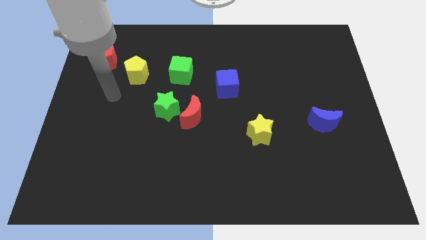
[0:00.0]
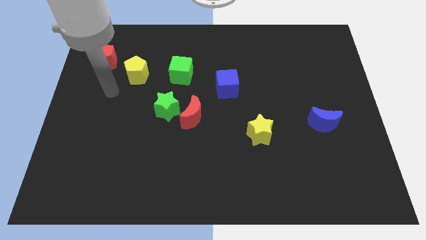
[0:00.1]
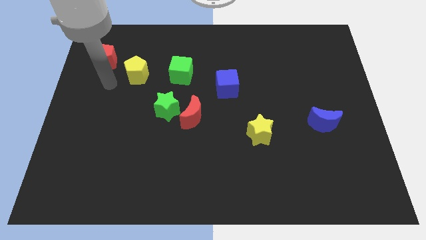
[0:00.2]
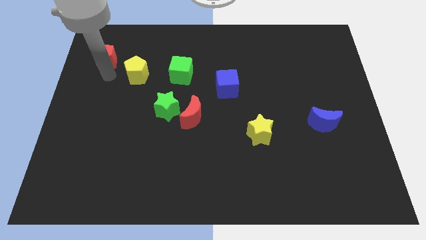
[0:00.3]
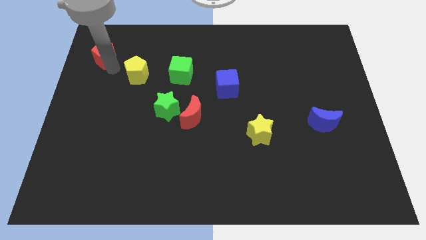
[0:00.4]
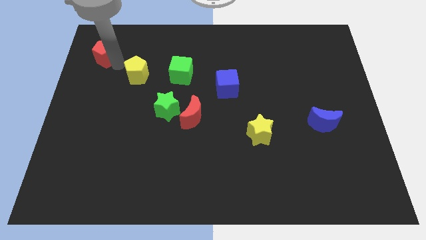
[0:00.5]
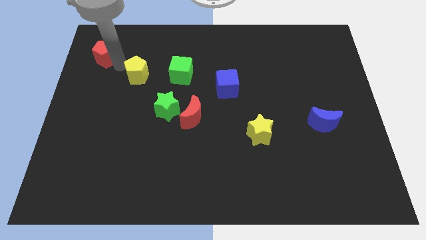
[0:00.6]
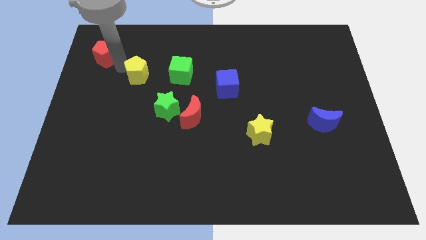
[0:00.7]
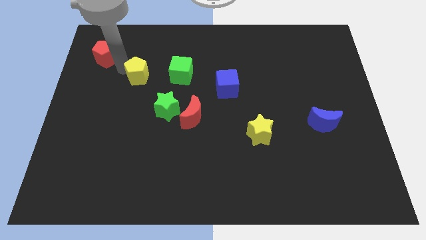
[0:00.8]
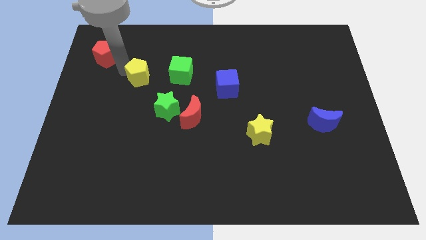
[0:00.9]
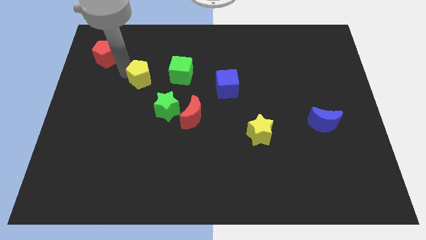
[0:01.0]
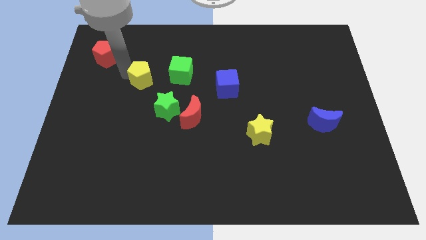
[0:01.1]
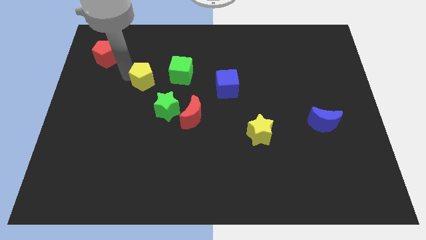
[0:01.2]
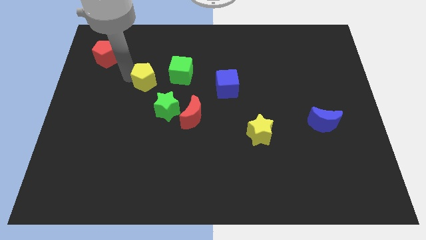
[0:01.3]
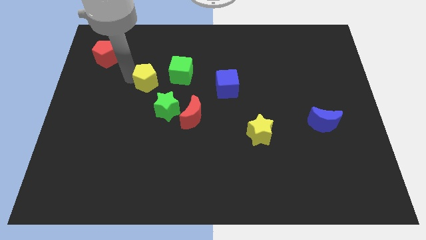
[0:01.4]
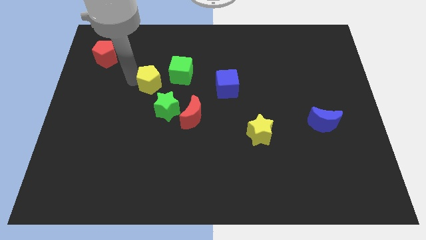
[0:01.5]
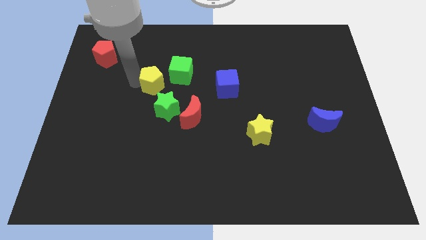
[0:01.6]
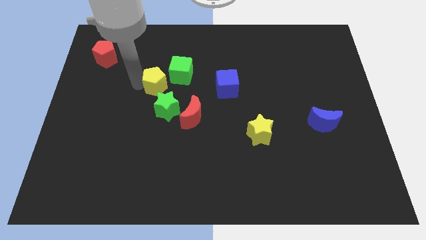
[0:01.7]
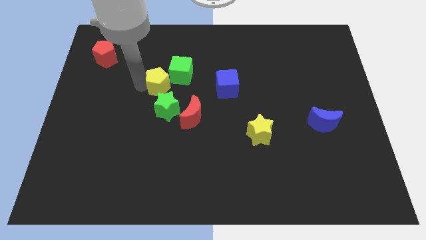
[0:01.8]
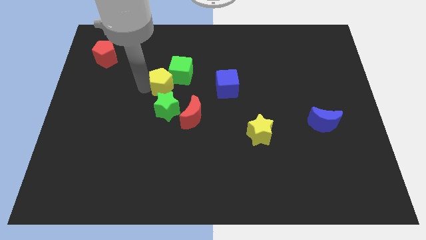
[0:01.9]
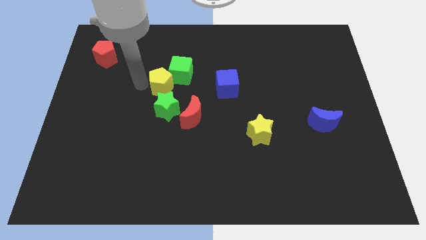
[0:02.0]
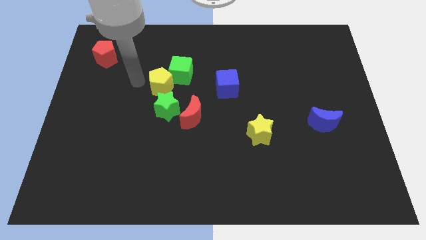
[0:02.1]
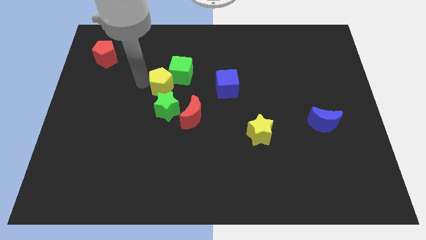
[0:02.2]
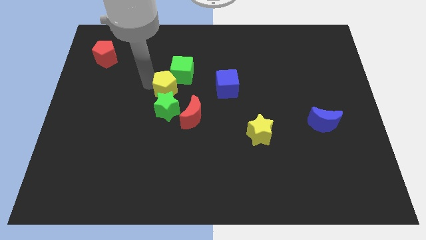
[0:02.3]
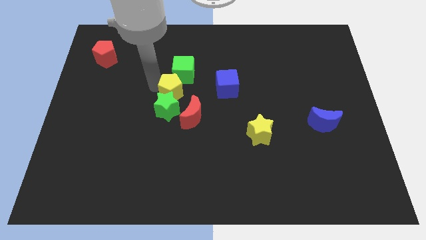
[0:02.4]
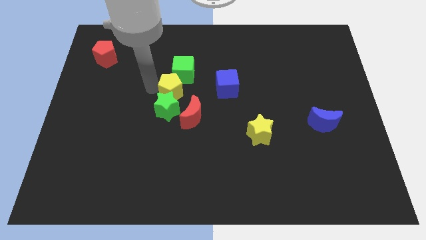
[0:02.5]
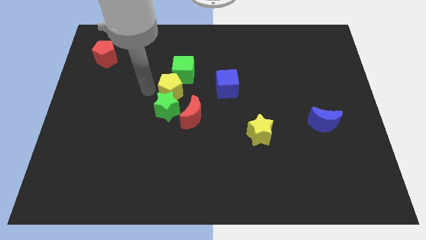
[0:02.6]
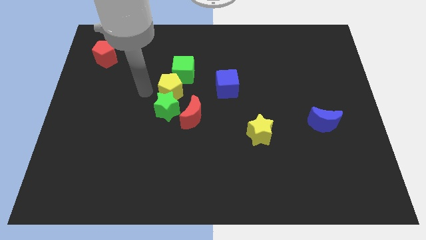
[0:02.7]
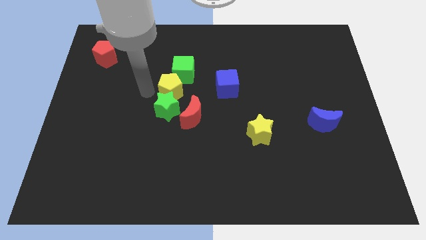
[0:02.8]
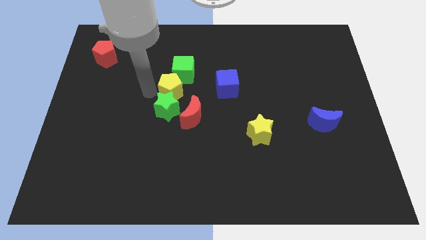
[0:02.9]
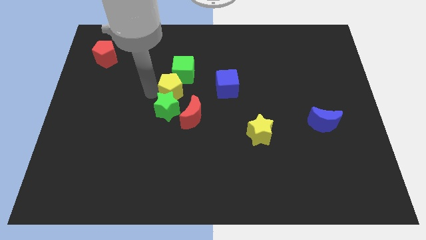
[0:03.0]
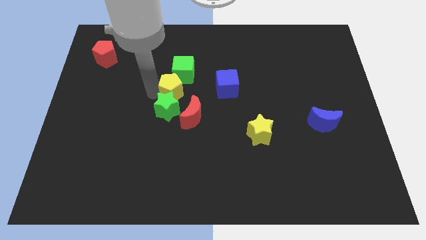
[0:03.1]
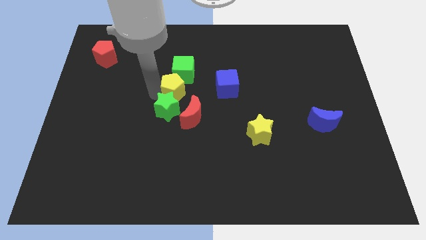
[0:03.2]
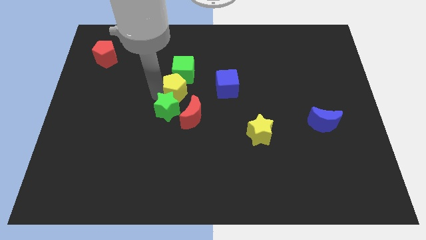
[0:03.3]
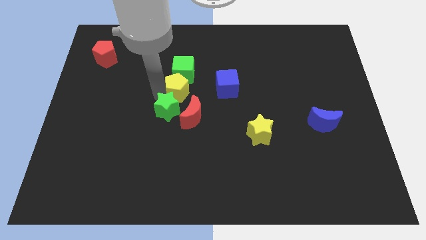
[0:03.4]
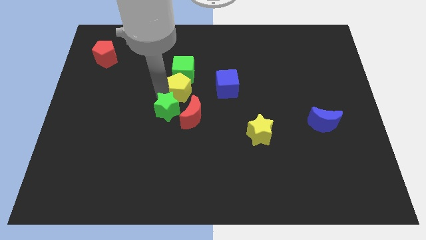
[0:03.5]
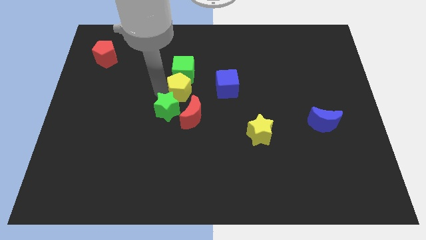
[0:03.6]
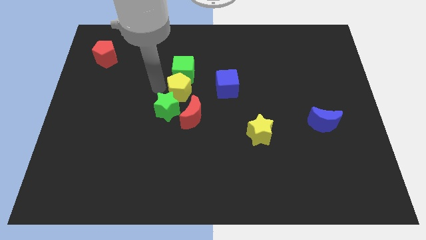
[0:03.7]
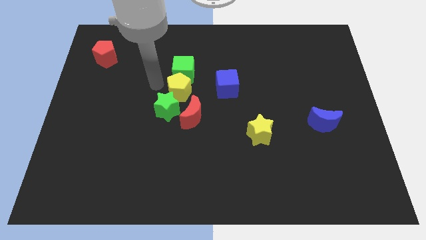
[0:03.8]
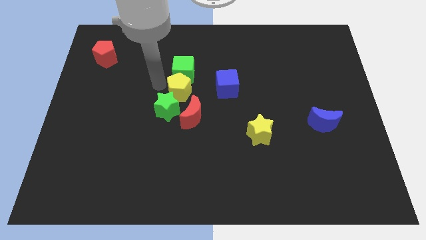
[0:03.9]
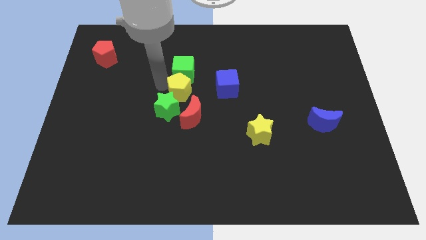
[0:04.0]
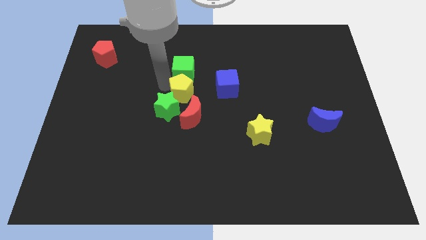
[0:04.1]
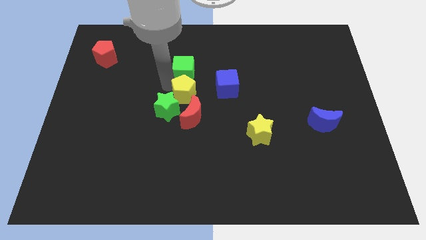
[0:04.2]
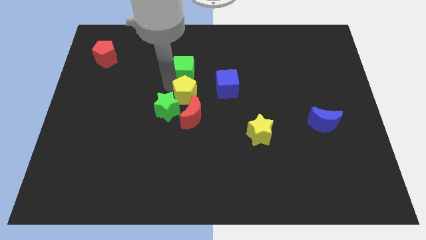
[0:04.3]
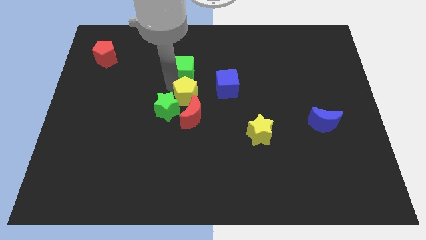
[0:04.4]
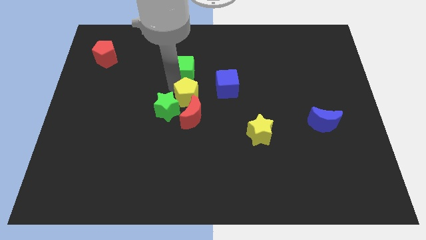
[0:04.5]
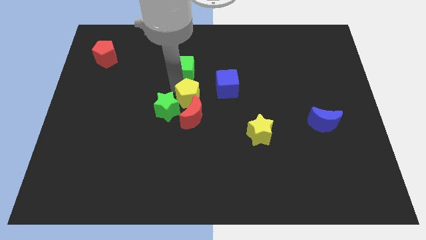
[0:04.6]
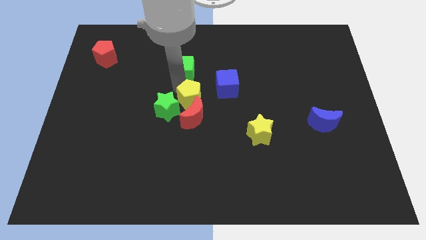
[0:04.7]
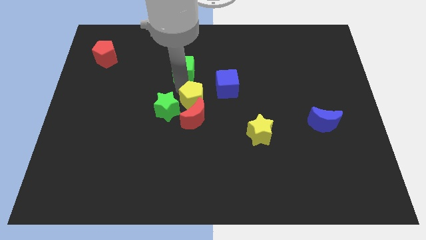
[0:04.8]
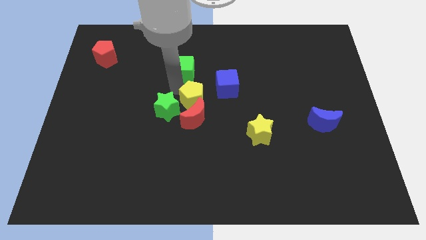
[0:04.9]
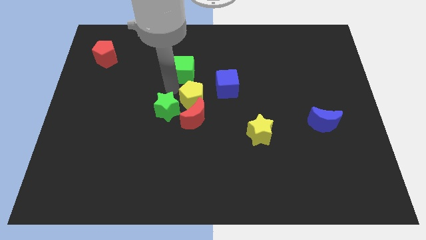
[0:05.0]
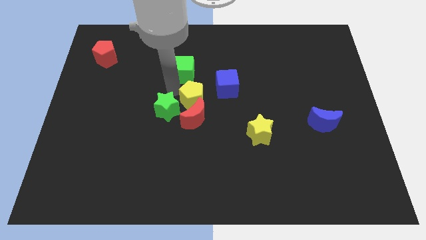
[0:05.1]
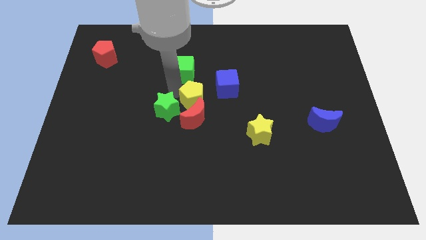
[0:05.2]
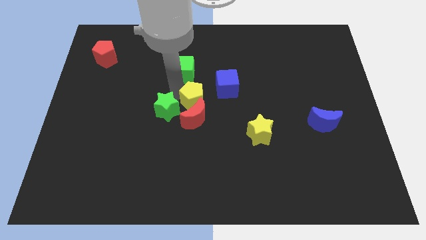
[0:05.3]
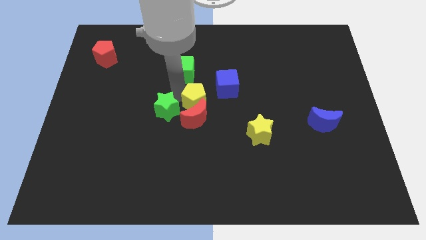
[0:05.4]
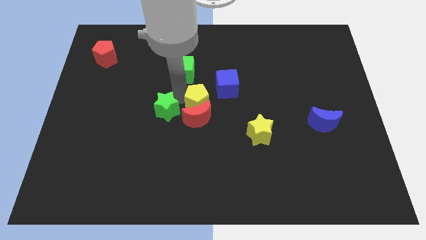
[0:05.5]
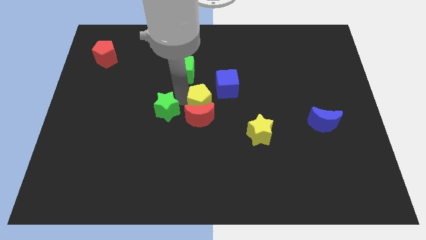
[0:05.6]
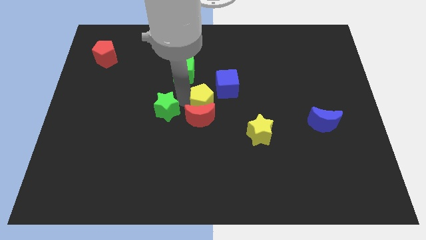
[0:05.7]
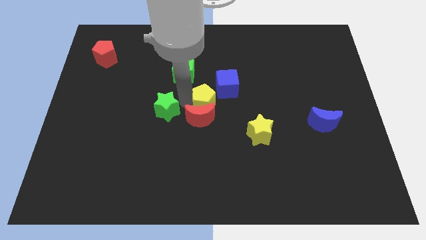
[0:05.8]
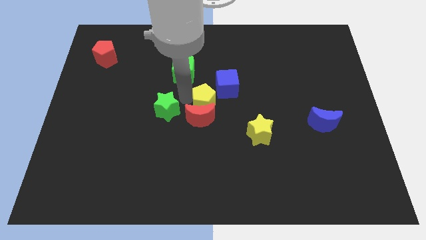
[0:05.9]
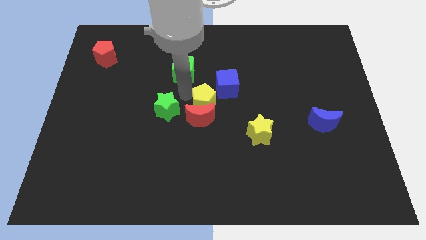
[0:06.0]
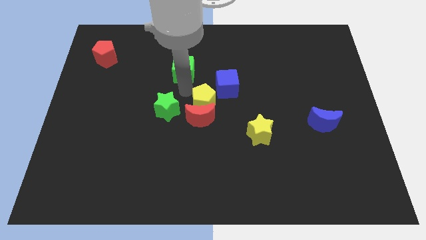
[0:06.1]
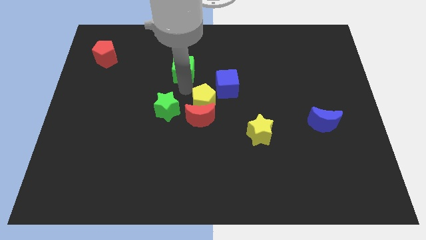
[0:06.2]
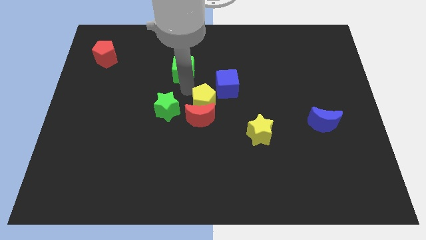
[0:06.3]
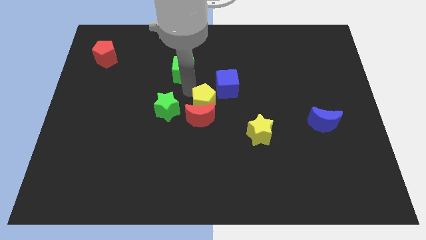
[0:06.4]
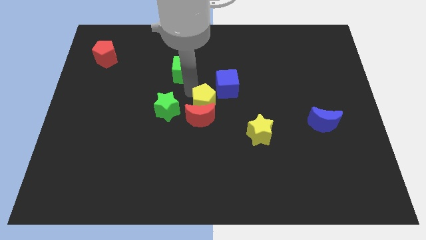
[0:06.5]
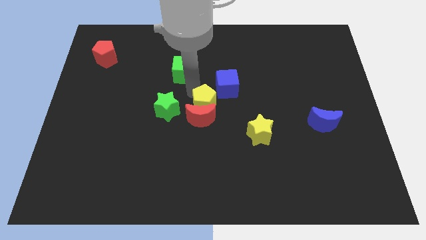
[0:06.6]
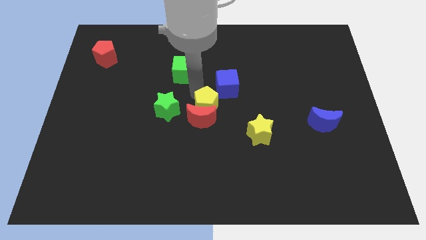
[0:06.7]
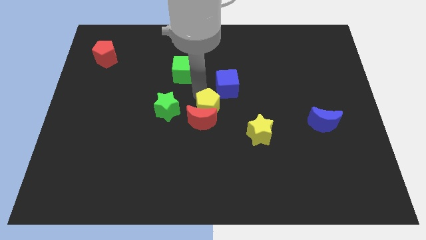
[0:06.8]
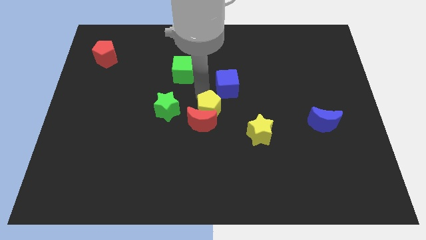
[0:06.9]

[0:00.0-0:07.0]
move the yellow pentagon down and right diagonally

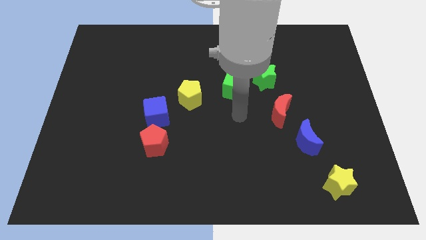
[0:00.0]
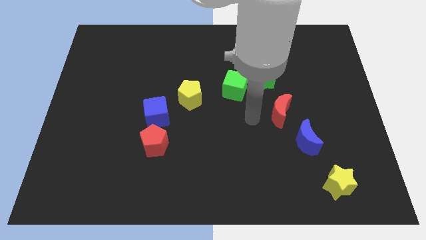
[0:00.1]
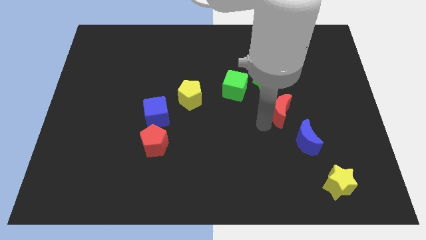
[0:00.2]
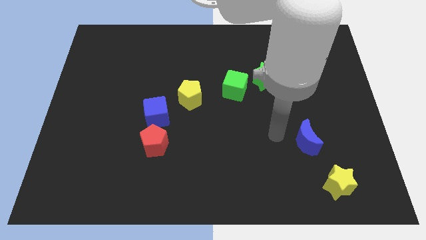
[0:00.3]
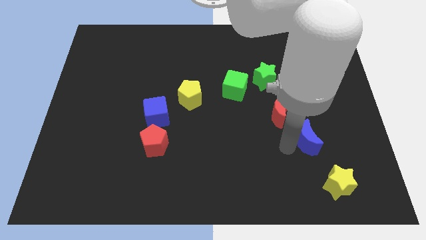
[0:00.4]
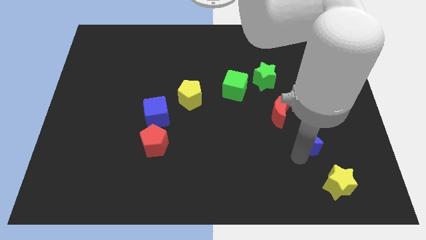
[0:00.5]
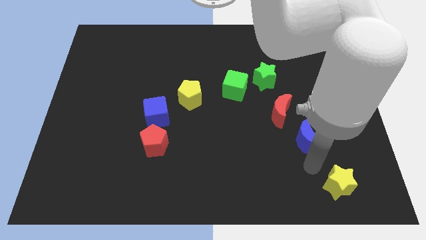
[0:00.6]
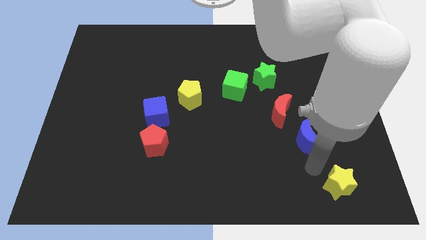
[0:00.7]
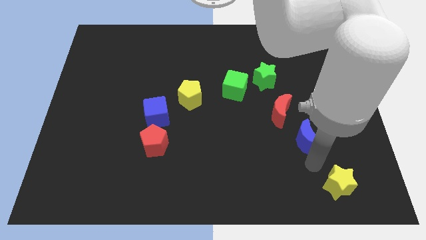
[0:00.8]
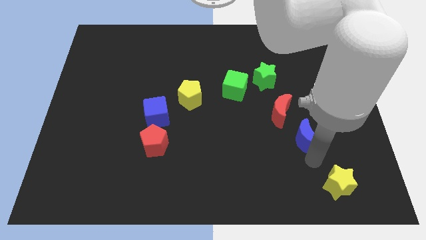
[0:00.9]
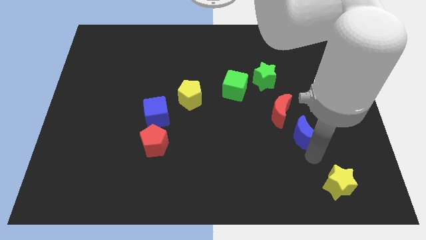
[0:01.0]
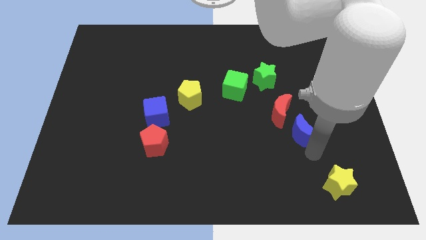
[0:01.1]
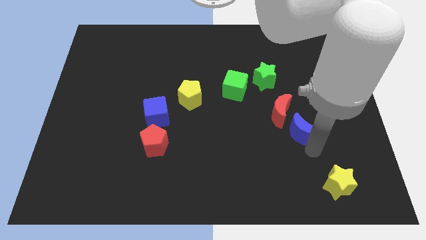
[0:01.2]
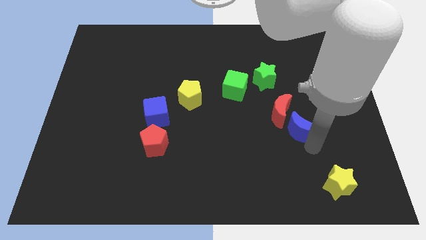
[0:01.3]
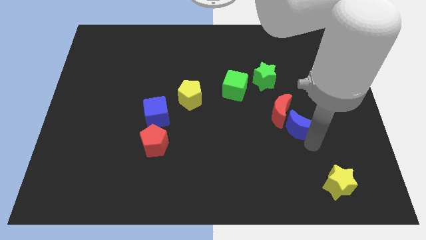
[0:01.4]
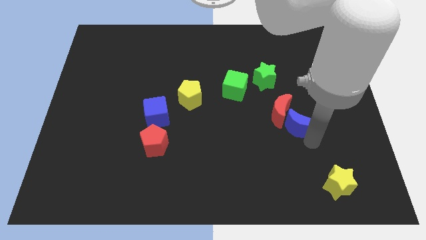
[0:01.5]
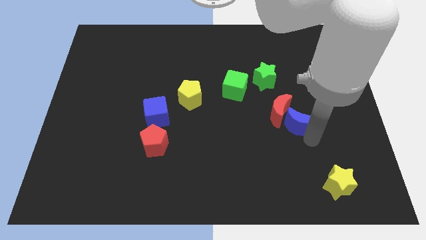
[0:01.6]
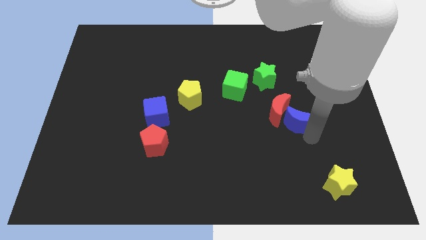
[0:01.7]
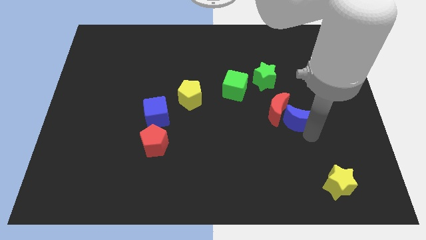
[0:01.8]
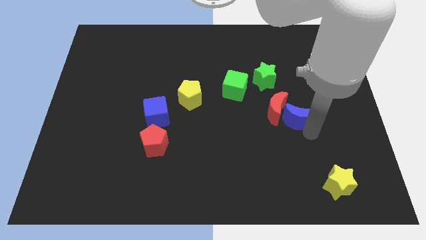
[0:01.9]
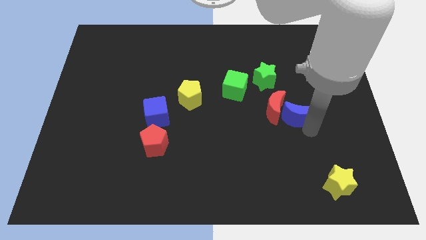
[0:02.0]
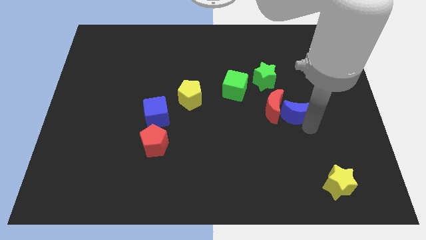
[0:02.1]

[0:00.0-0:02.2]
push the blue moon a bit up
